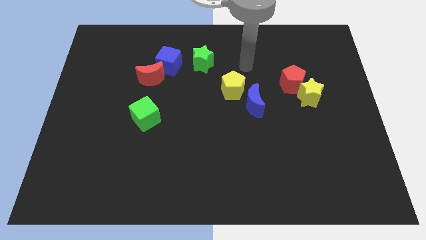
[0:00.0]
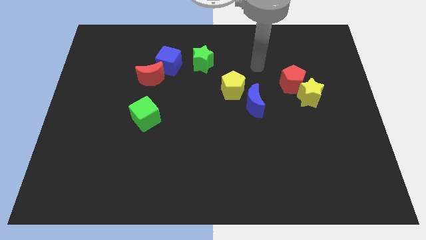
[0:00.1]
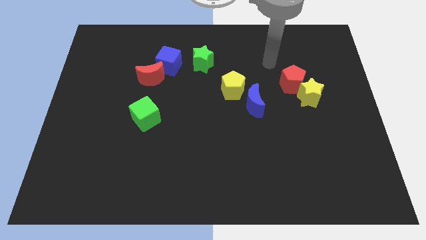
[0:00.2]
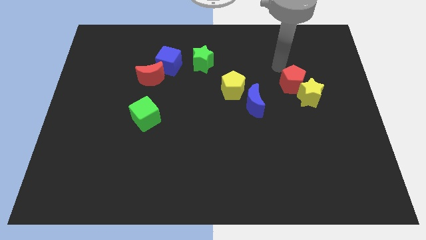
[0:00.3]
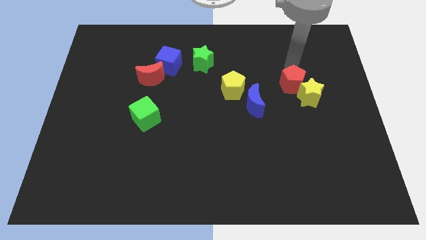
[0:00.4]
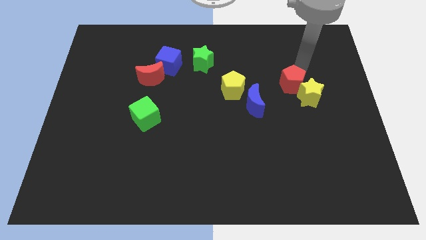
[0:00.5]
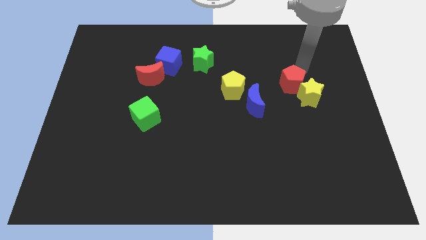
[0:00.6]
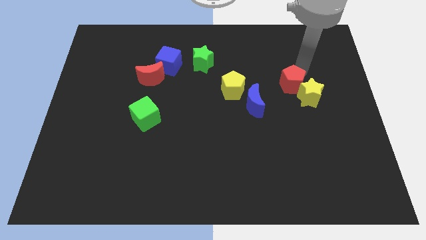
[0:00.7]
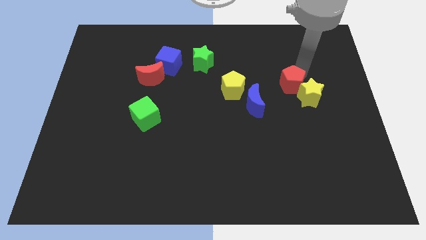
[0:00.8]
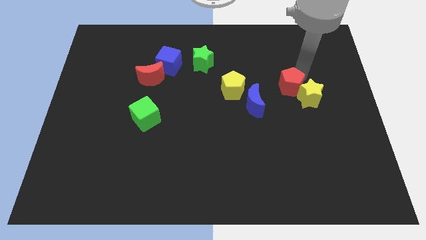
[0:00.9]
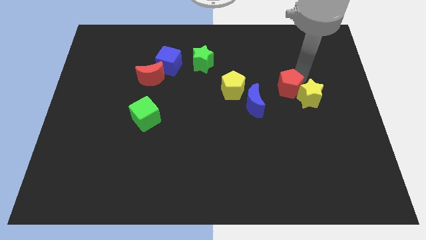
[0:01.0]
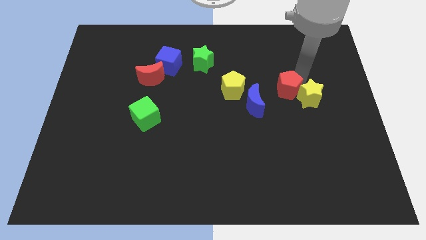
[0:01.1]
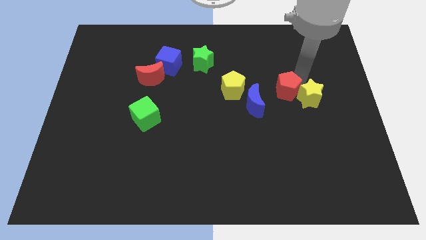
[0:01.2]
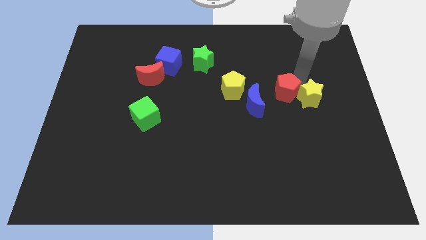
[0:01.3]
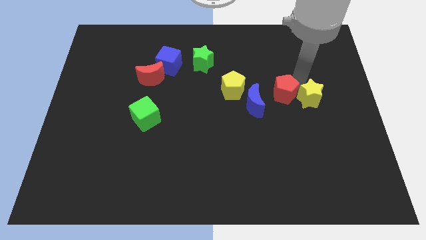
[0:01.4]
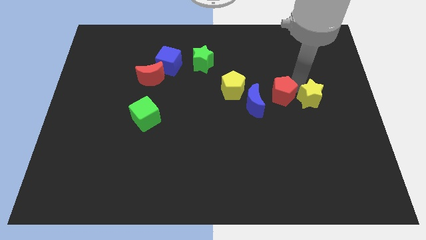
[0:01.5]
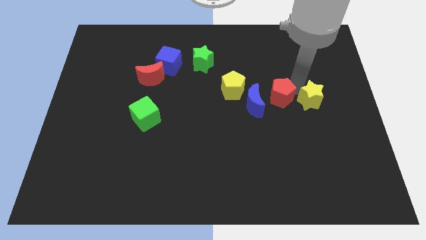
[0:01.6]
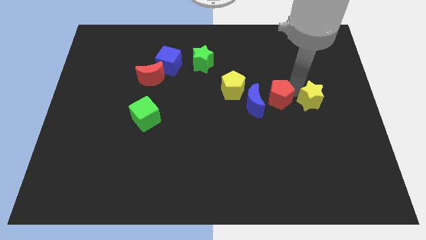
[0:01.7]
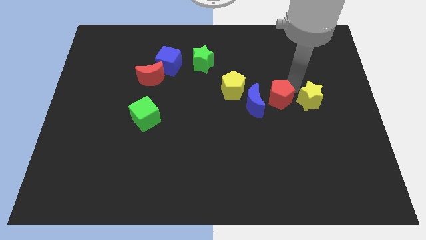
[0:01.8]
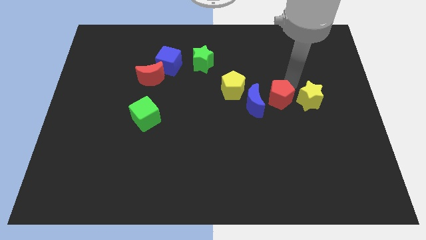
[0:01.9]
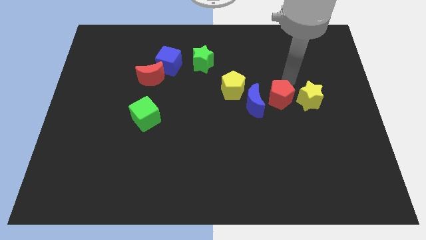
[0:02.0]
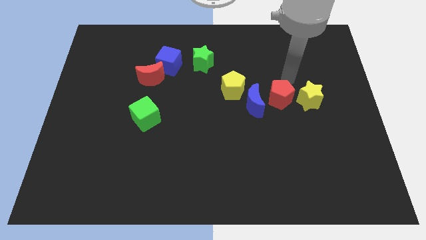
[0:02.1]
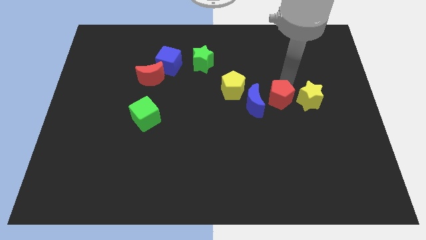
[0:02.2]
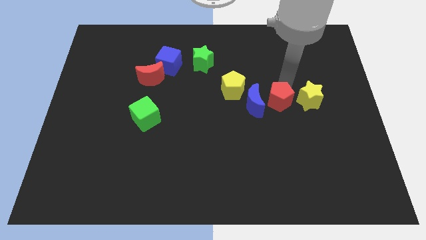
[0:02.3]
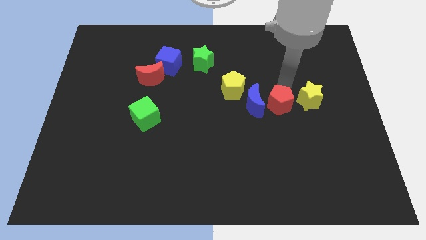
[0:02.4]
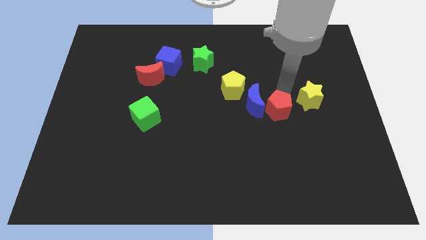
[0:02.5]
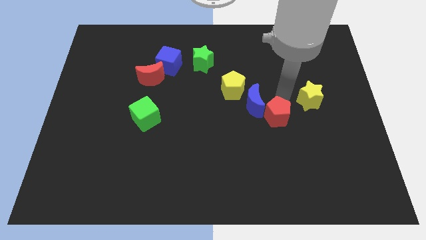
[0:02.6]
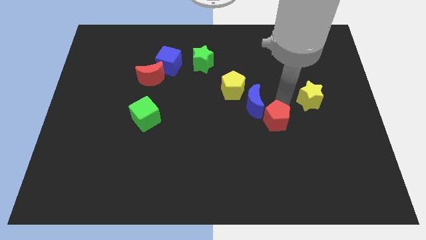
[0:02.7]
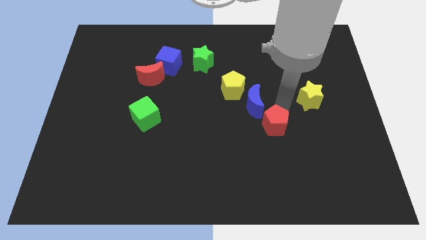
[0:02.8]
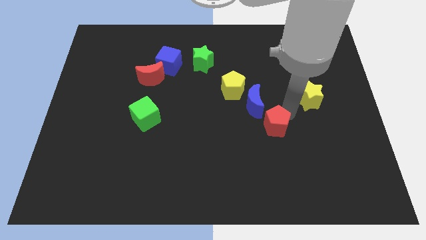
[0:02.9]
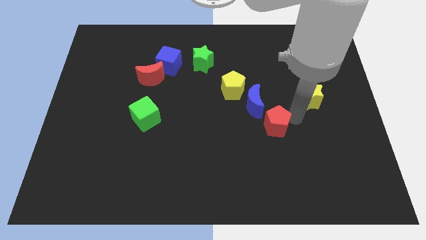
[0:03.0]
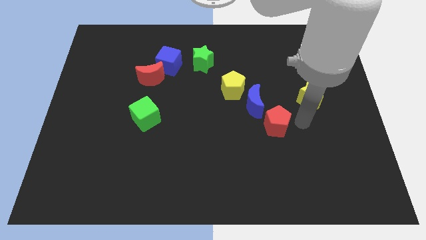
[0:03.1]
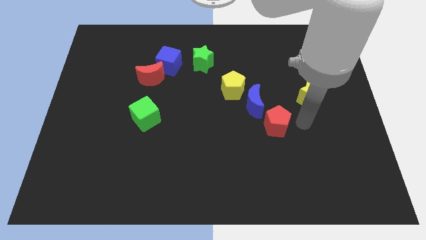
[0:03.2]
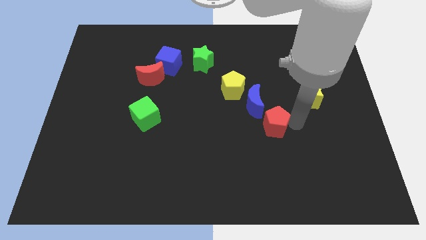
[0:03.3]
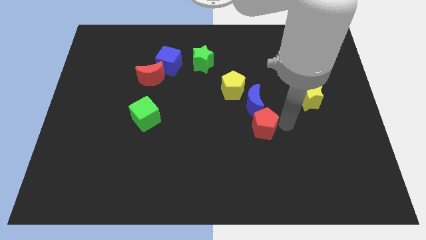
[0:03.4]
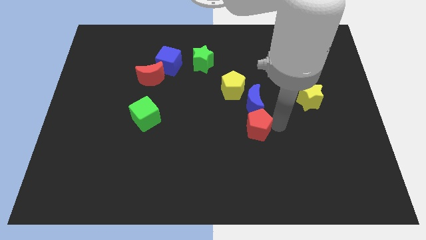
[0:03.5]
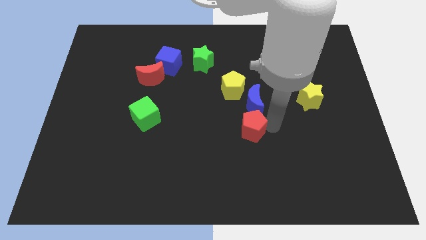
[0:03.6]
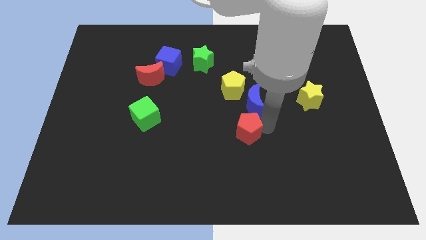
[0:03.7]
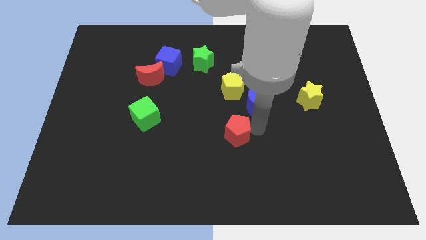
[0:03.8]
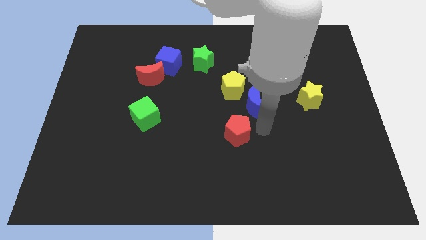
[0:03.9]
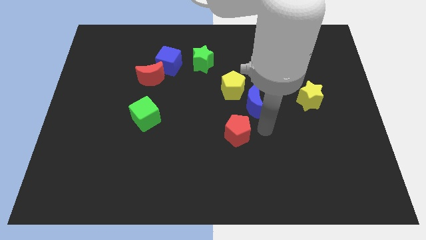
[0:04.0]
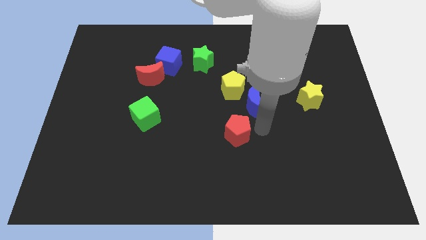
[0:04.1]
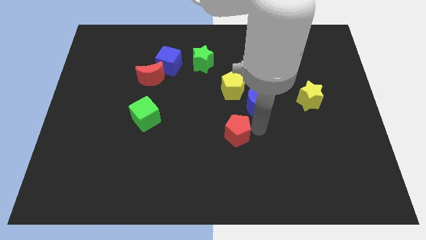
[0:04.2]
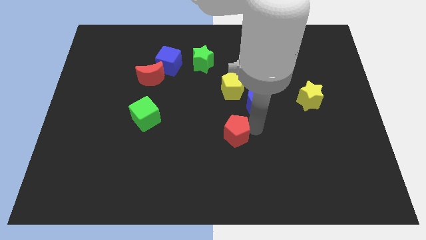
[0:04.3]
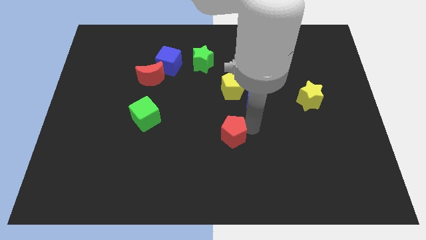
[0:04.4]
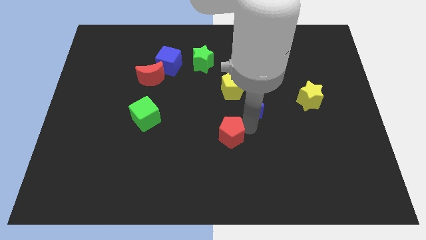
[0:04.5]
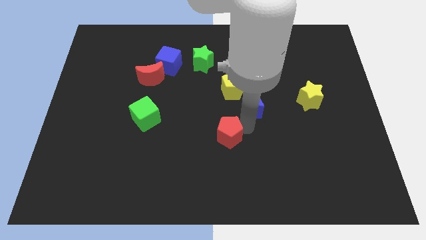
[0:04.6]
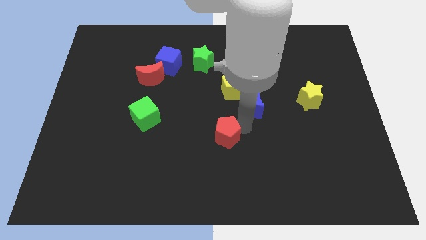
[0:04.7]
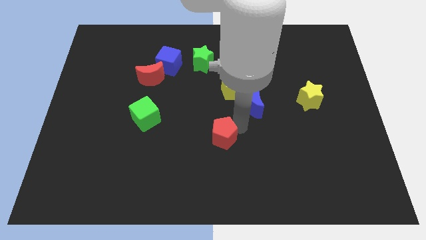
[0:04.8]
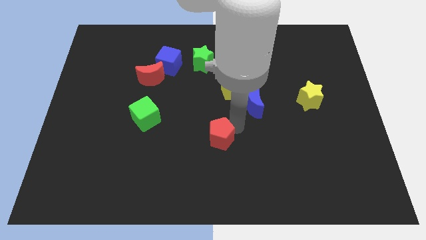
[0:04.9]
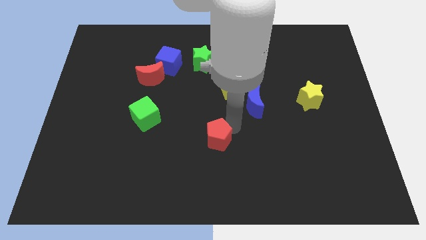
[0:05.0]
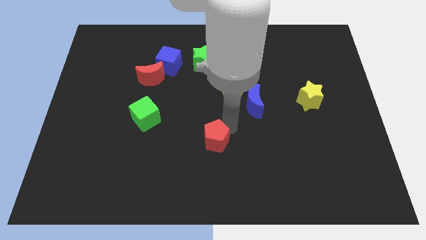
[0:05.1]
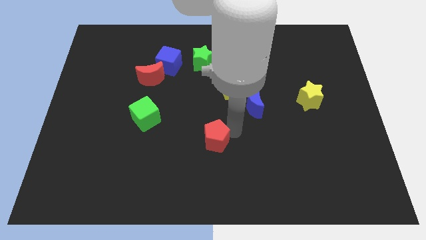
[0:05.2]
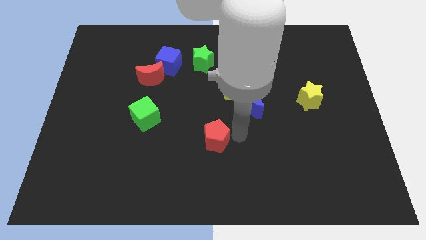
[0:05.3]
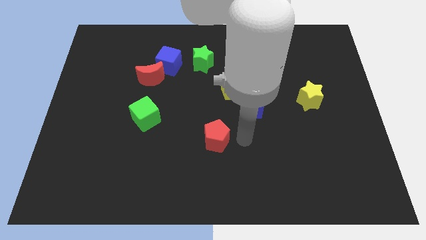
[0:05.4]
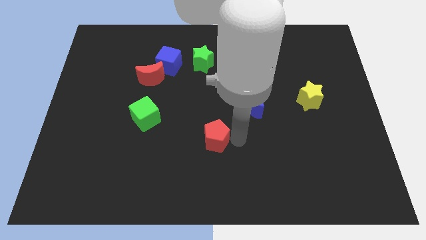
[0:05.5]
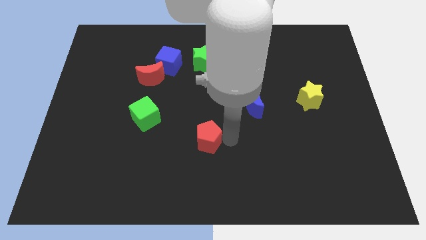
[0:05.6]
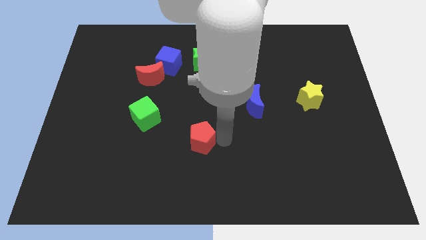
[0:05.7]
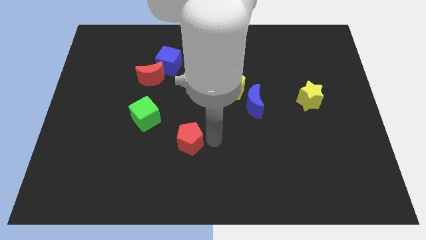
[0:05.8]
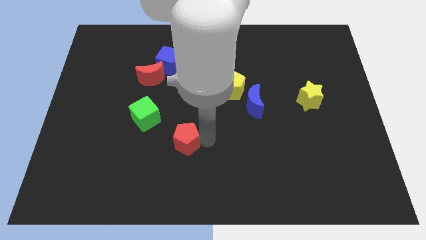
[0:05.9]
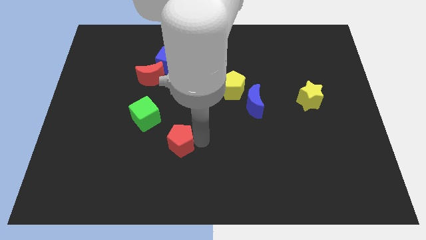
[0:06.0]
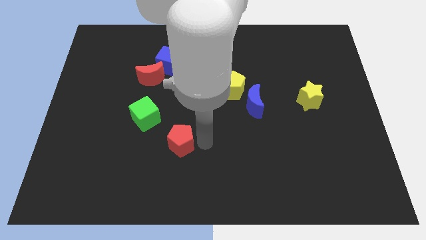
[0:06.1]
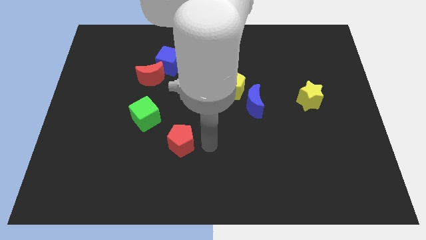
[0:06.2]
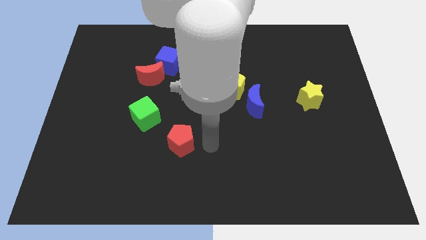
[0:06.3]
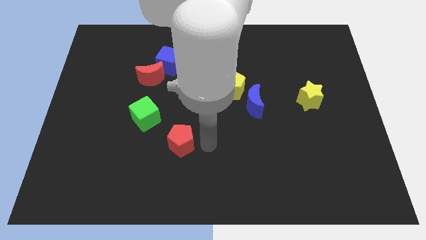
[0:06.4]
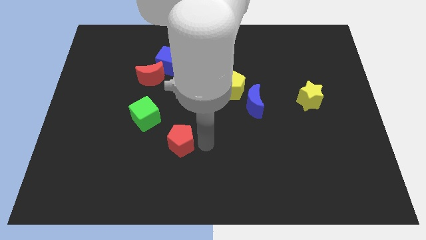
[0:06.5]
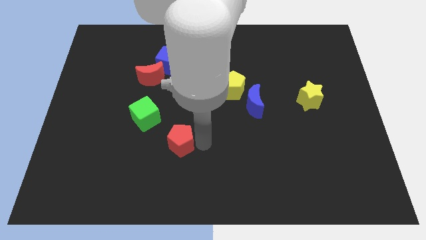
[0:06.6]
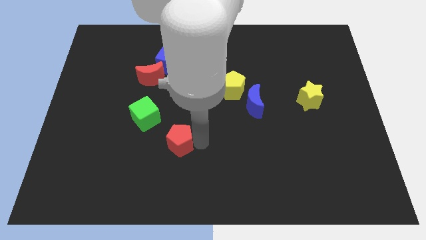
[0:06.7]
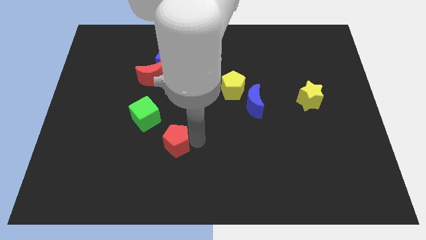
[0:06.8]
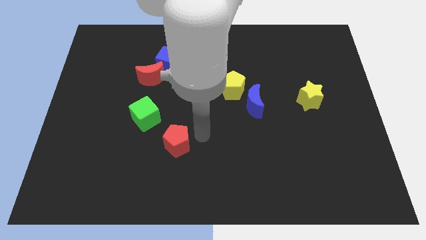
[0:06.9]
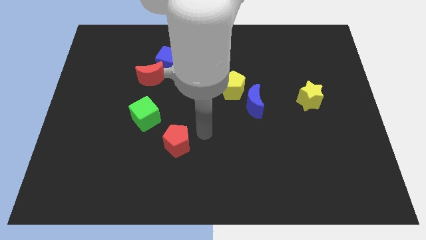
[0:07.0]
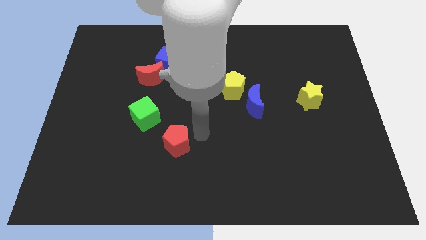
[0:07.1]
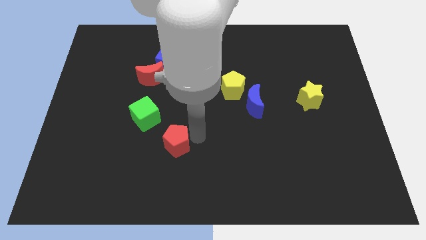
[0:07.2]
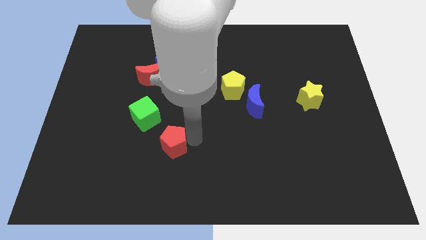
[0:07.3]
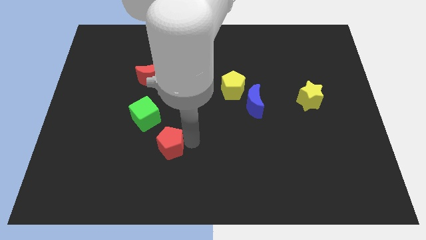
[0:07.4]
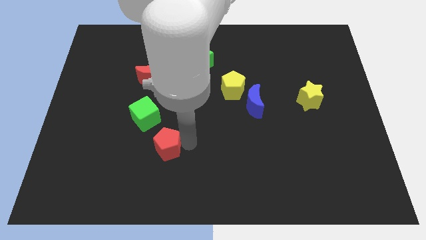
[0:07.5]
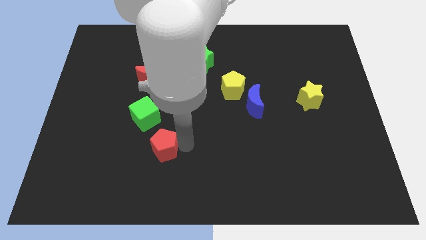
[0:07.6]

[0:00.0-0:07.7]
put the red pentagon to the bottom of the green cube
